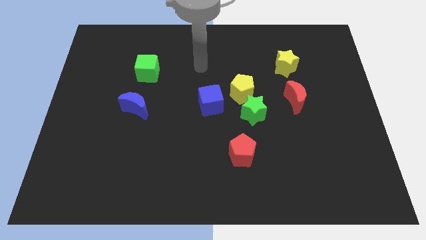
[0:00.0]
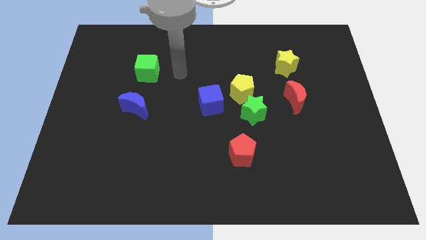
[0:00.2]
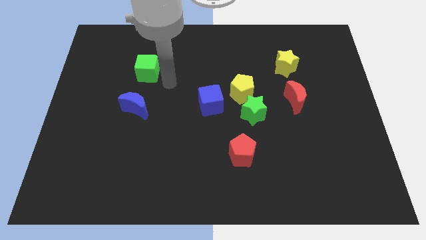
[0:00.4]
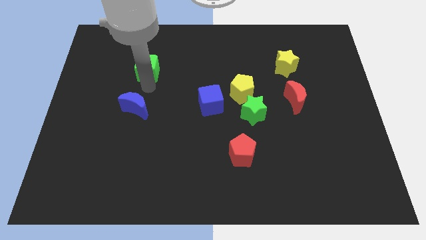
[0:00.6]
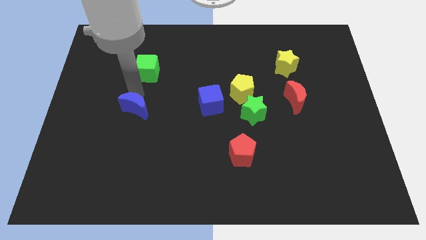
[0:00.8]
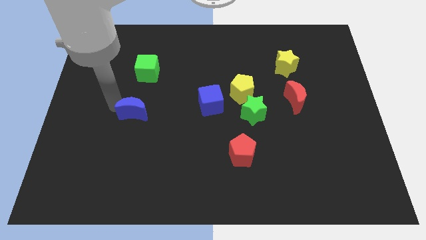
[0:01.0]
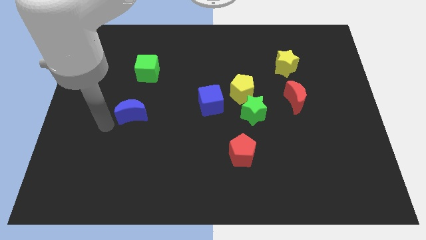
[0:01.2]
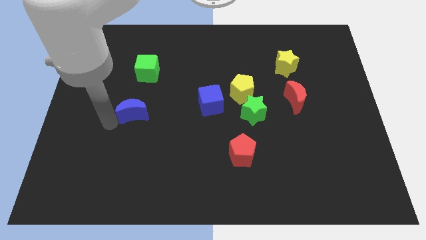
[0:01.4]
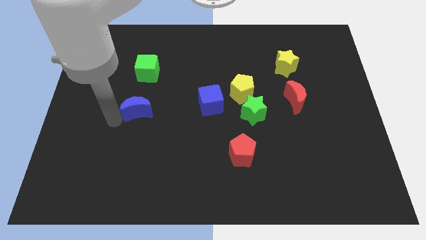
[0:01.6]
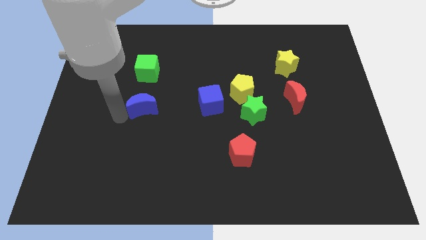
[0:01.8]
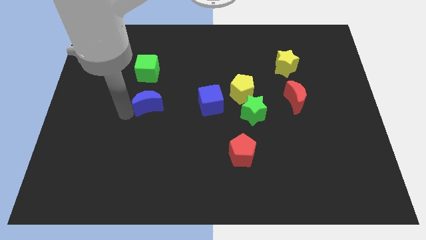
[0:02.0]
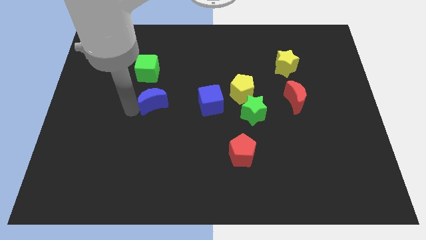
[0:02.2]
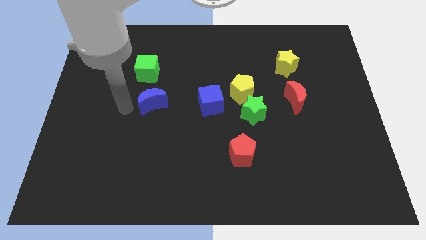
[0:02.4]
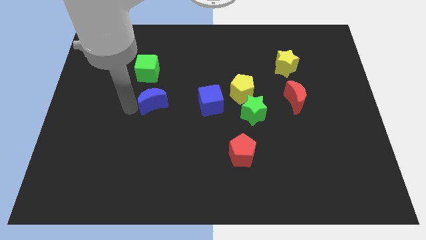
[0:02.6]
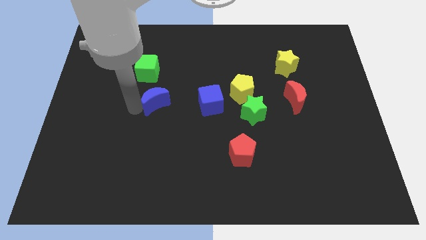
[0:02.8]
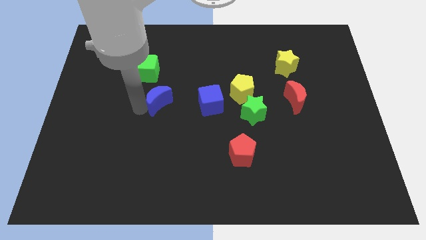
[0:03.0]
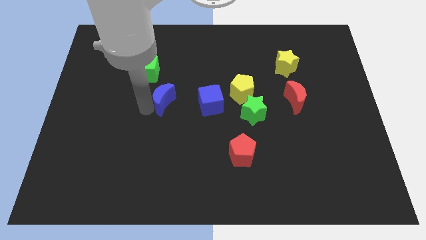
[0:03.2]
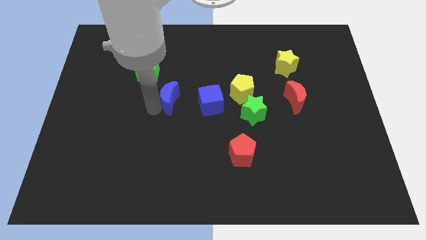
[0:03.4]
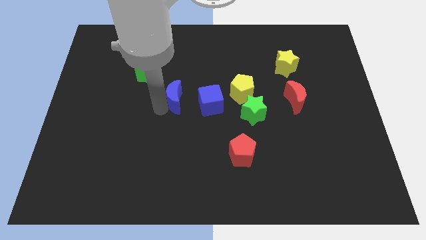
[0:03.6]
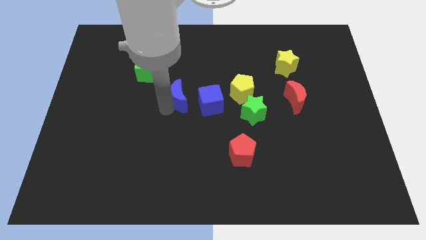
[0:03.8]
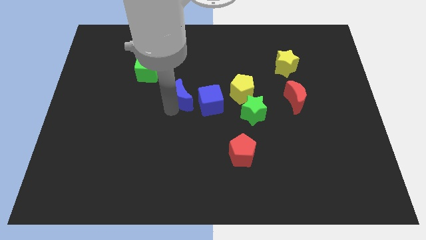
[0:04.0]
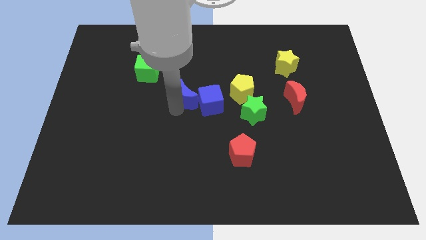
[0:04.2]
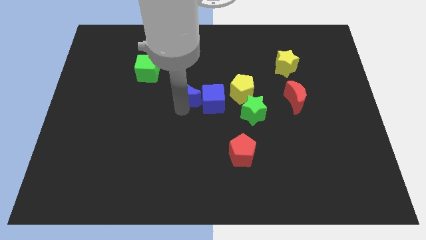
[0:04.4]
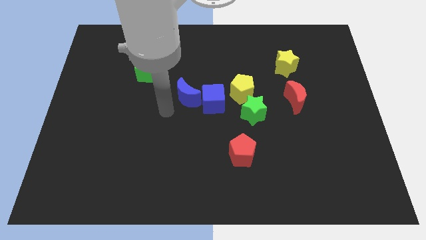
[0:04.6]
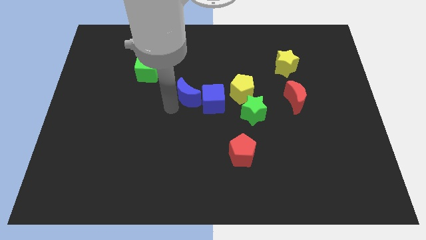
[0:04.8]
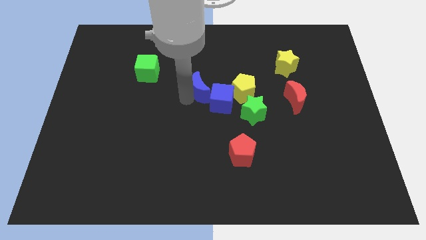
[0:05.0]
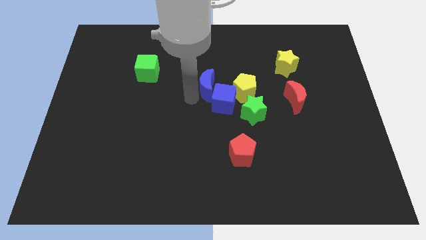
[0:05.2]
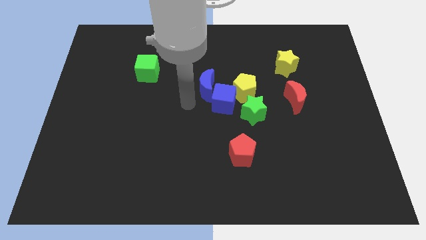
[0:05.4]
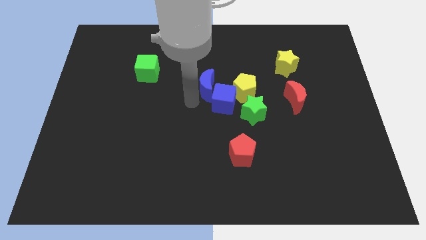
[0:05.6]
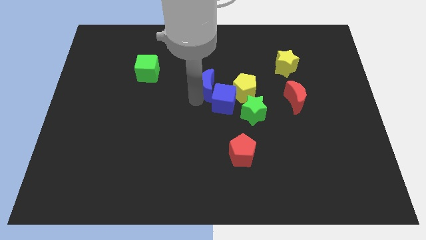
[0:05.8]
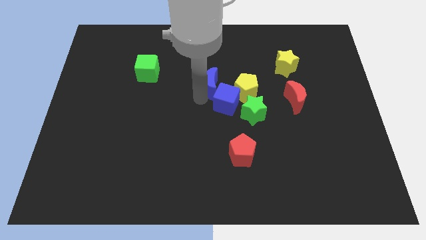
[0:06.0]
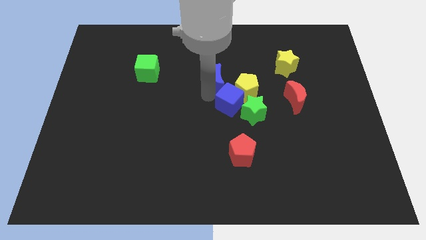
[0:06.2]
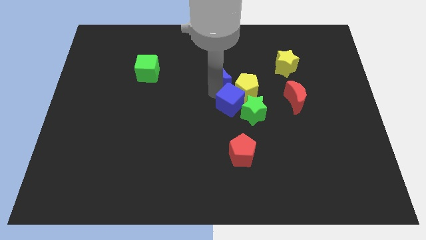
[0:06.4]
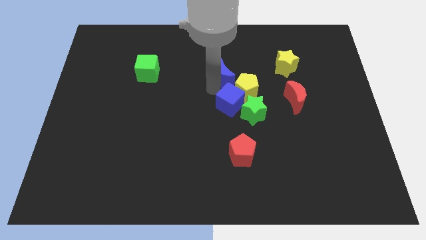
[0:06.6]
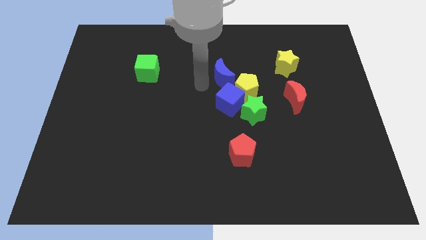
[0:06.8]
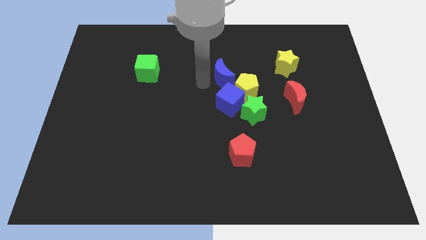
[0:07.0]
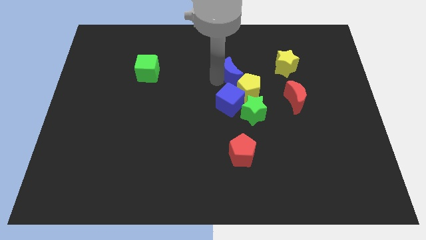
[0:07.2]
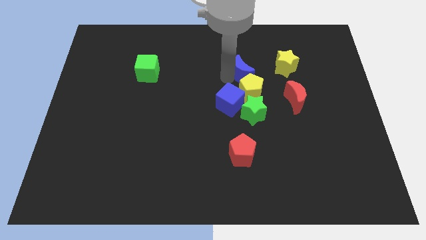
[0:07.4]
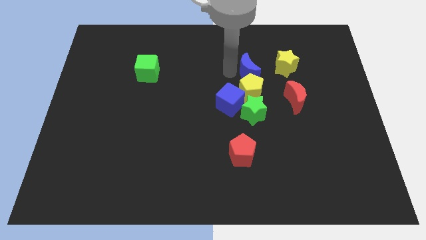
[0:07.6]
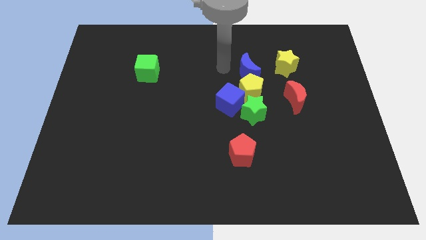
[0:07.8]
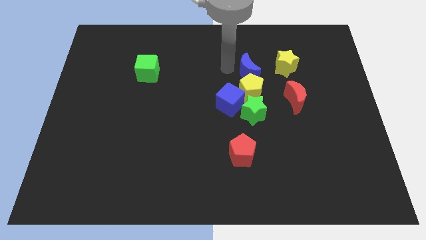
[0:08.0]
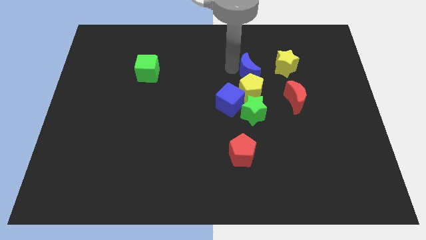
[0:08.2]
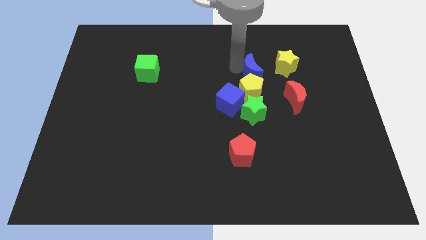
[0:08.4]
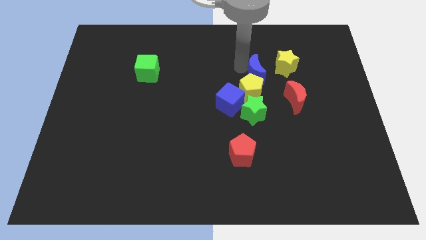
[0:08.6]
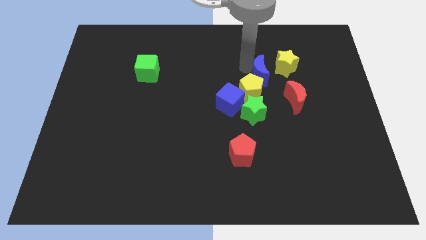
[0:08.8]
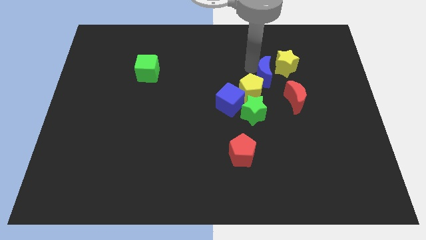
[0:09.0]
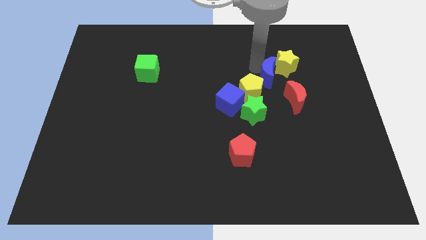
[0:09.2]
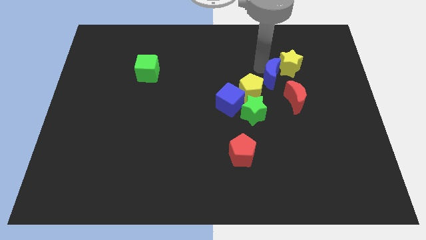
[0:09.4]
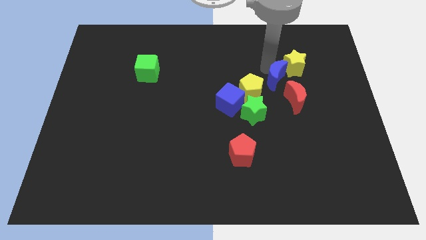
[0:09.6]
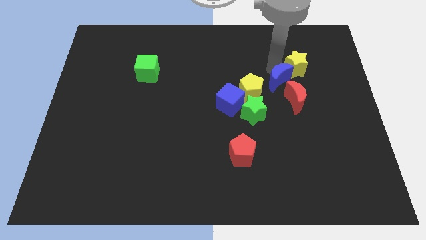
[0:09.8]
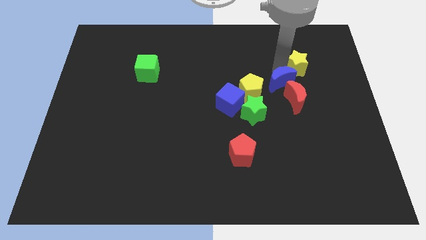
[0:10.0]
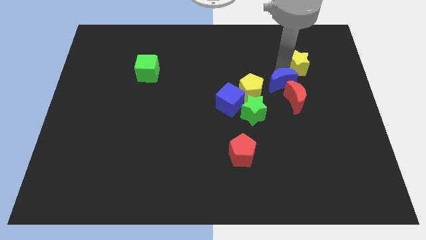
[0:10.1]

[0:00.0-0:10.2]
move the blue moon to the red moon

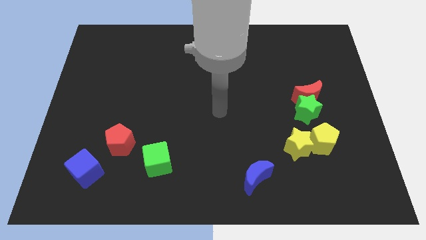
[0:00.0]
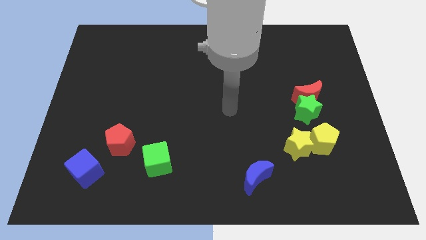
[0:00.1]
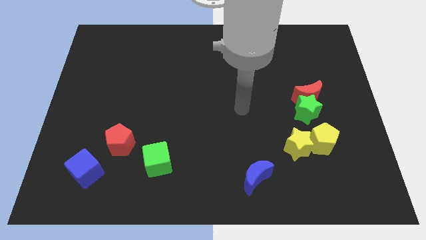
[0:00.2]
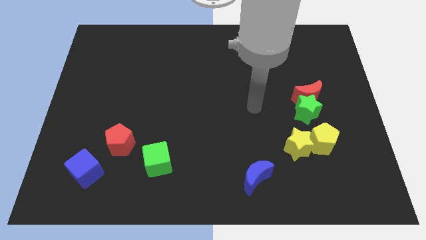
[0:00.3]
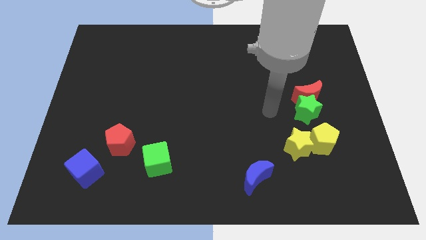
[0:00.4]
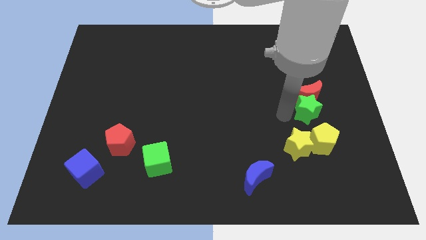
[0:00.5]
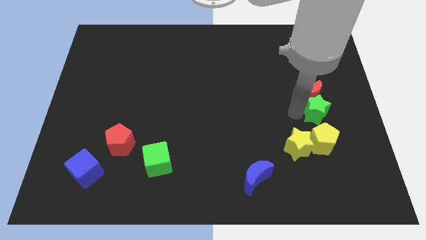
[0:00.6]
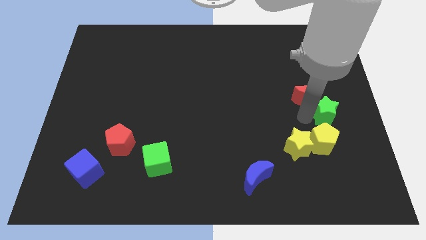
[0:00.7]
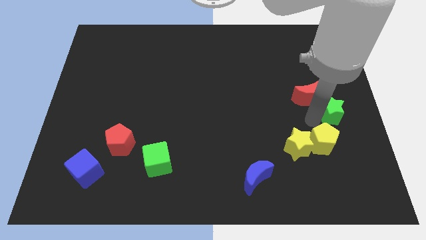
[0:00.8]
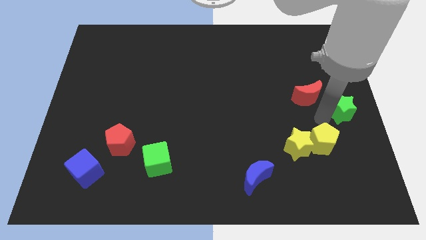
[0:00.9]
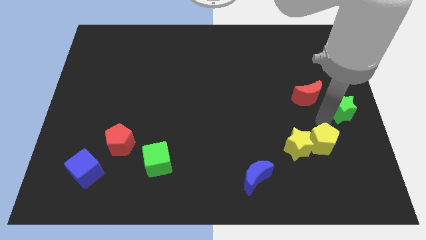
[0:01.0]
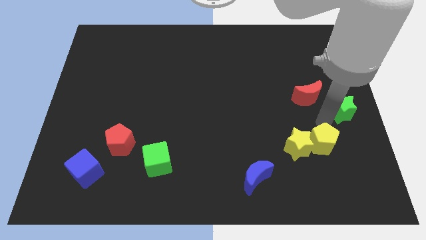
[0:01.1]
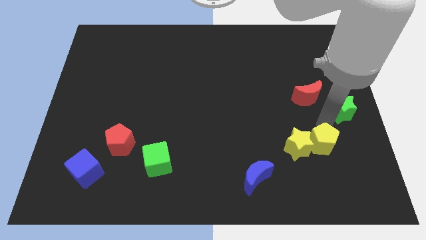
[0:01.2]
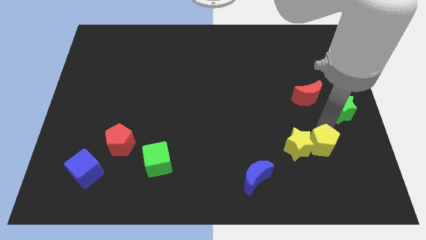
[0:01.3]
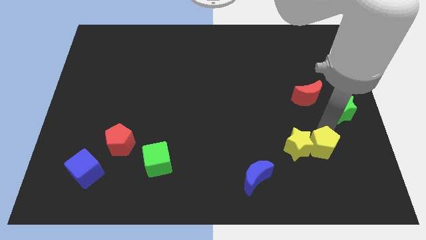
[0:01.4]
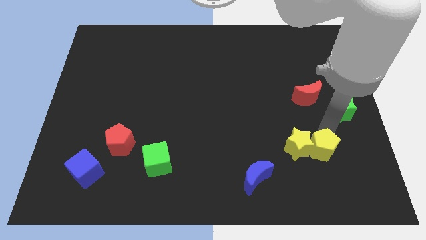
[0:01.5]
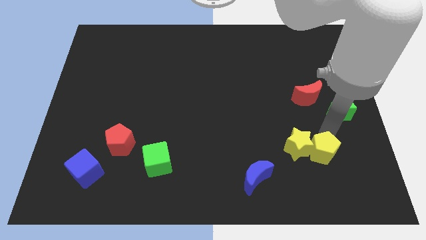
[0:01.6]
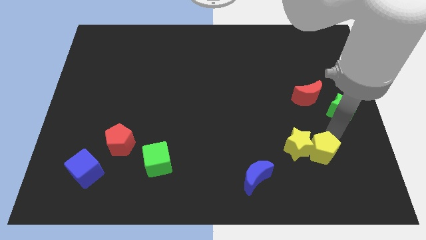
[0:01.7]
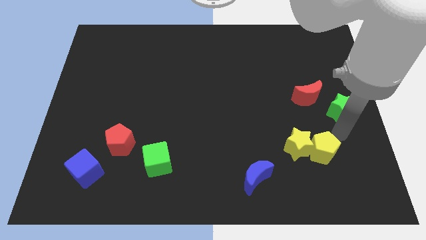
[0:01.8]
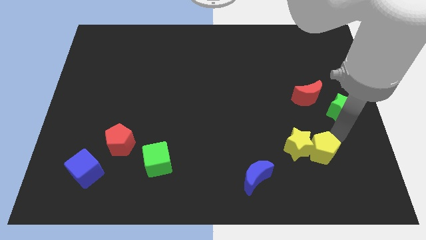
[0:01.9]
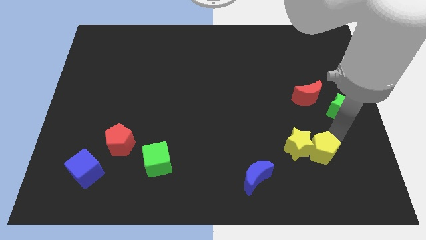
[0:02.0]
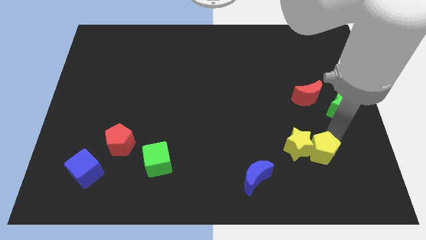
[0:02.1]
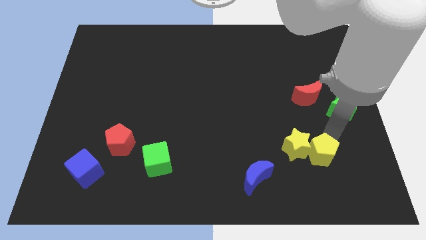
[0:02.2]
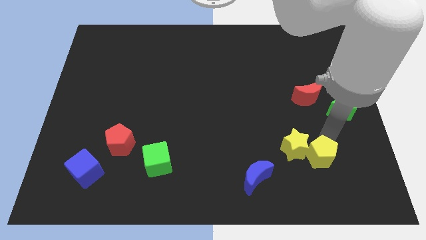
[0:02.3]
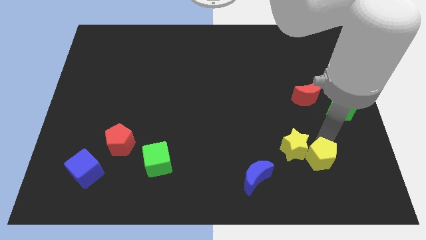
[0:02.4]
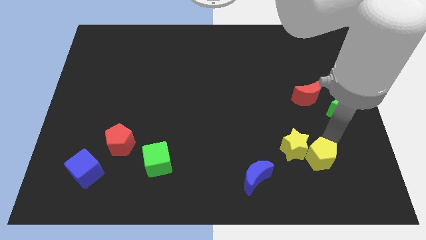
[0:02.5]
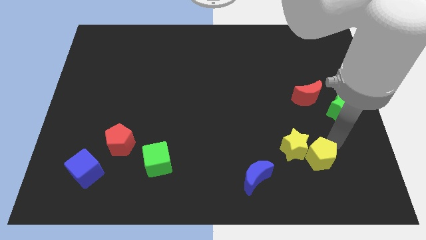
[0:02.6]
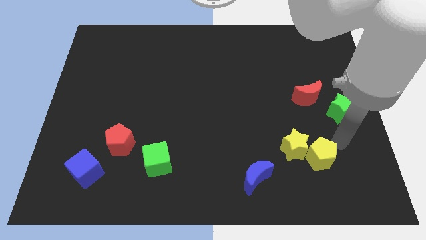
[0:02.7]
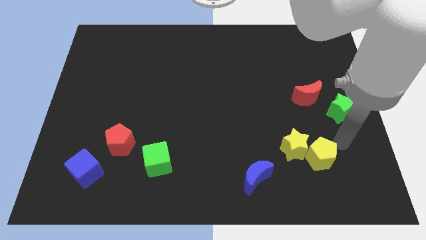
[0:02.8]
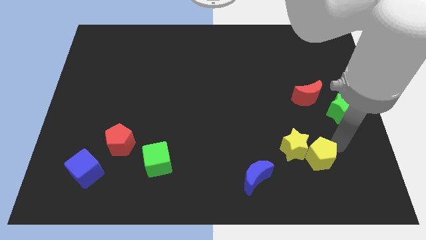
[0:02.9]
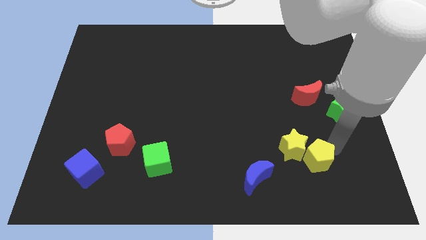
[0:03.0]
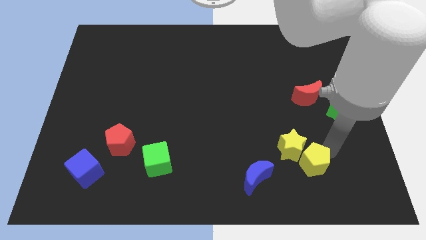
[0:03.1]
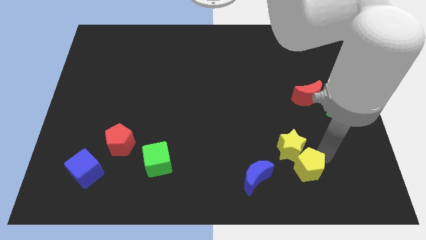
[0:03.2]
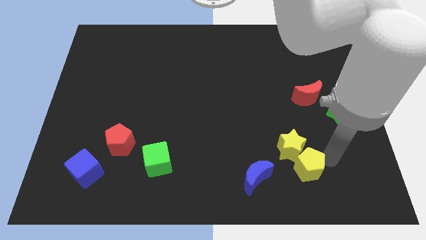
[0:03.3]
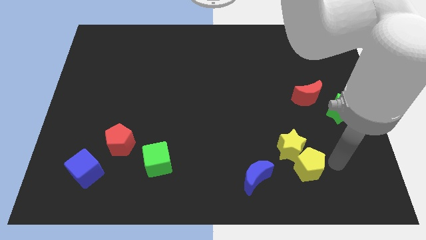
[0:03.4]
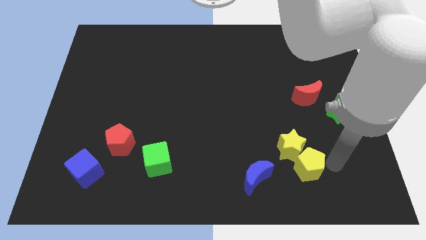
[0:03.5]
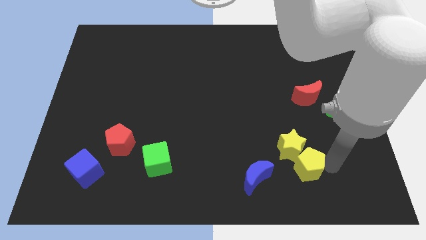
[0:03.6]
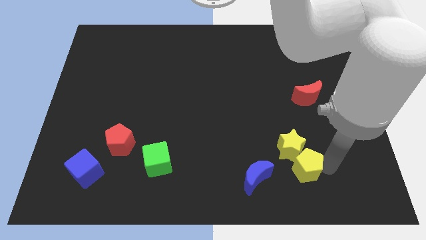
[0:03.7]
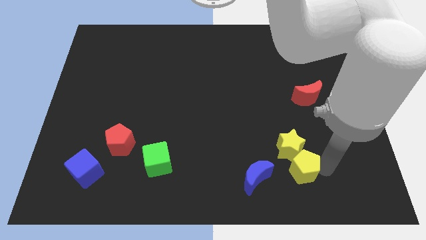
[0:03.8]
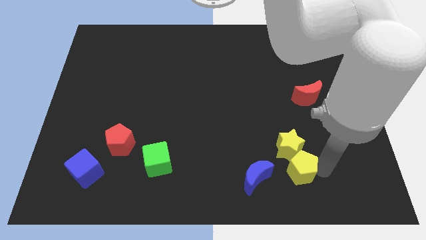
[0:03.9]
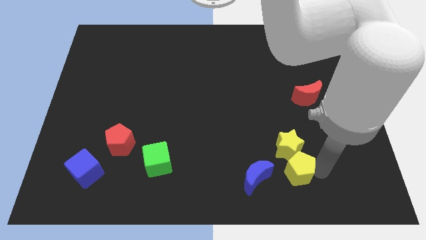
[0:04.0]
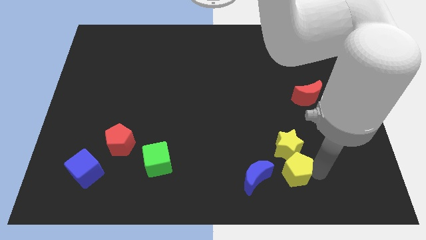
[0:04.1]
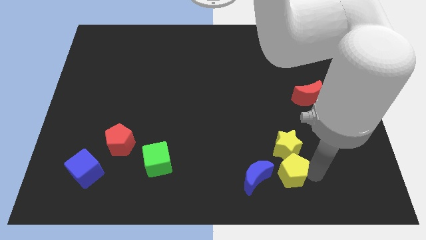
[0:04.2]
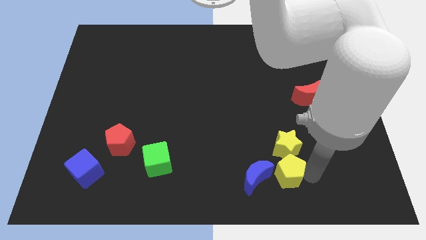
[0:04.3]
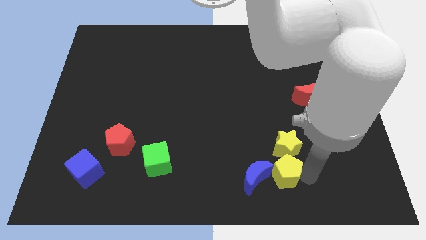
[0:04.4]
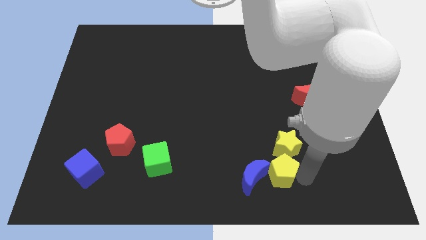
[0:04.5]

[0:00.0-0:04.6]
push the yellow pentagon towards the blue moon
